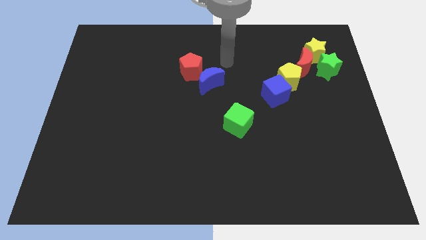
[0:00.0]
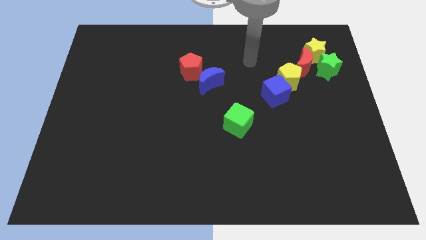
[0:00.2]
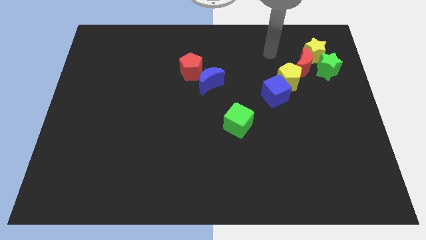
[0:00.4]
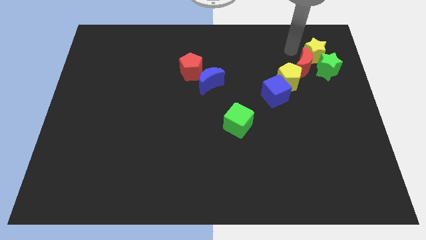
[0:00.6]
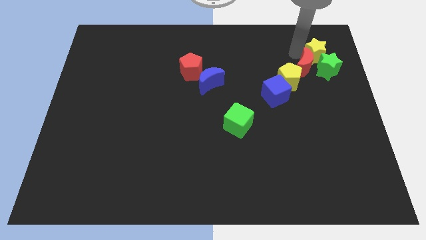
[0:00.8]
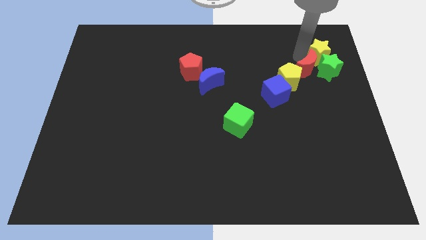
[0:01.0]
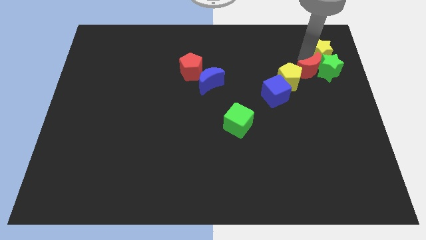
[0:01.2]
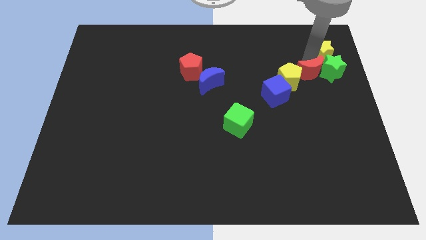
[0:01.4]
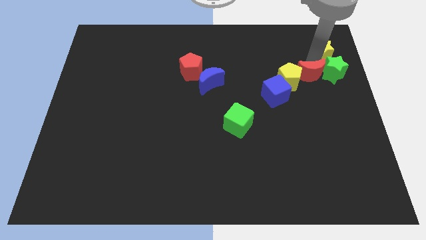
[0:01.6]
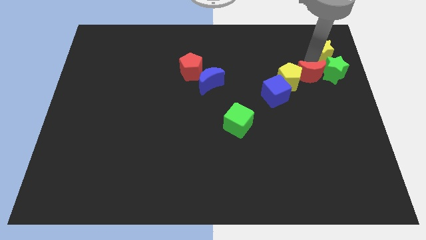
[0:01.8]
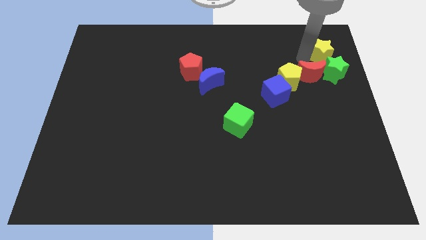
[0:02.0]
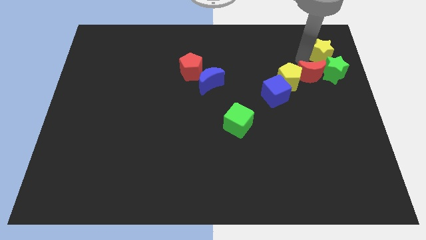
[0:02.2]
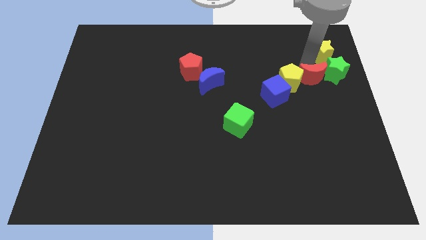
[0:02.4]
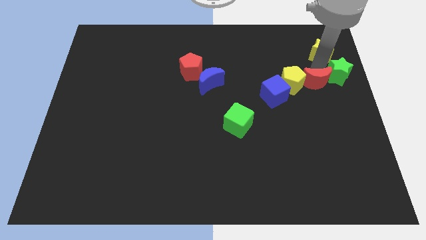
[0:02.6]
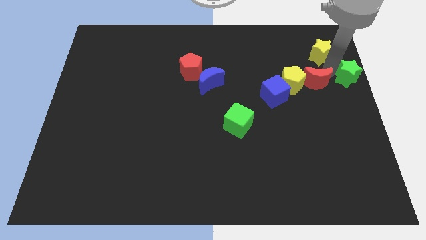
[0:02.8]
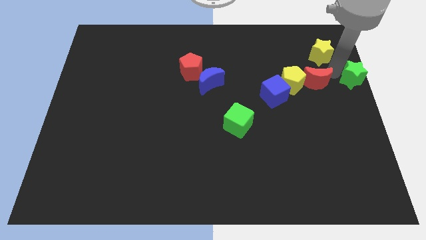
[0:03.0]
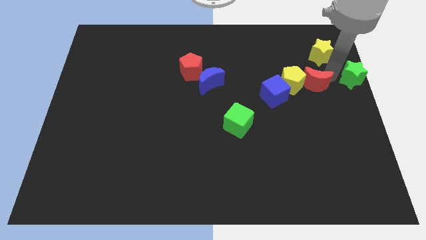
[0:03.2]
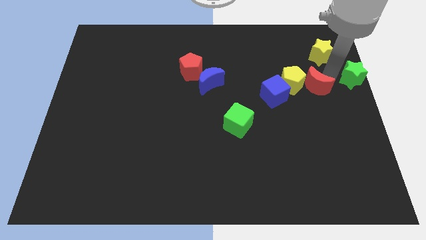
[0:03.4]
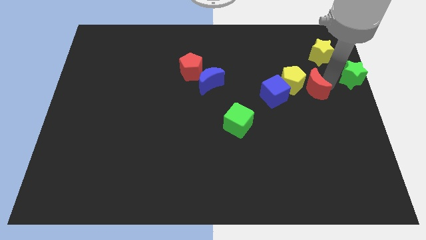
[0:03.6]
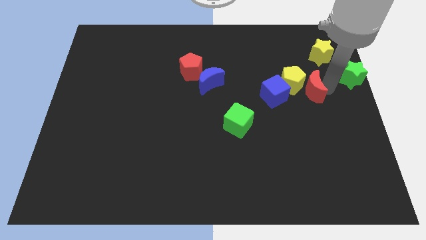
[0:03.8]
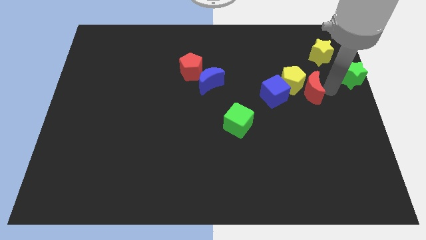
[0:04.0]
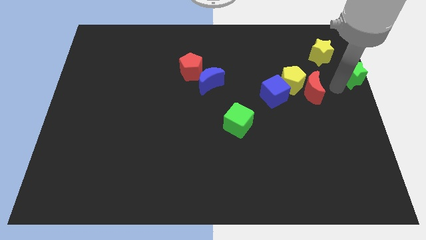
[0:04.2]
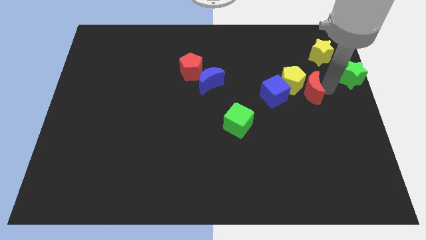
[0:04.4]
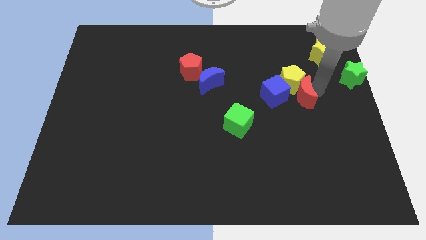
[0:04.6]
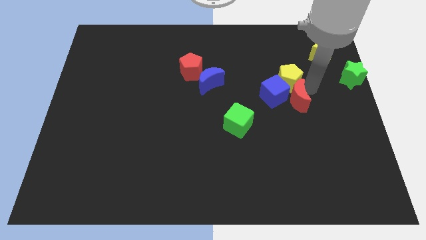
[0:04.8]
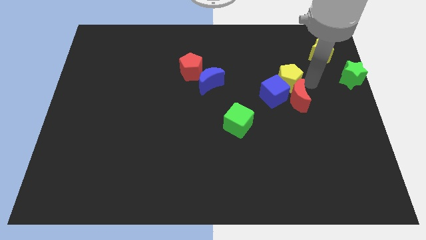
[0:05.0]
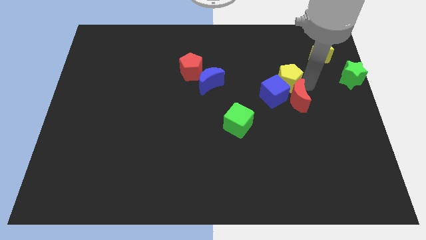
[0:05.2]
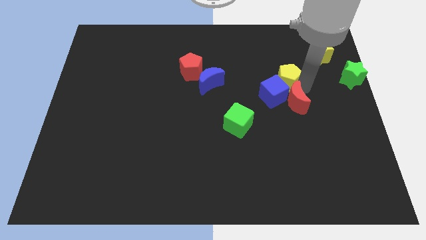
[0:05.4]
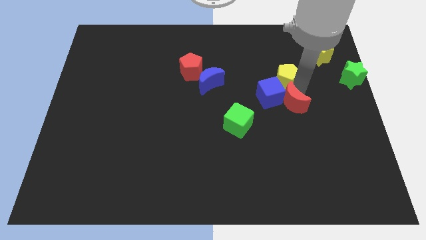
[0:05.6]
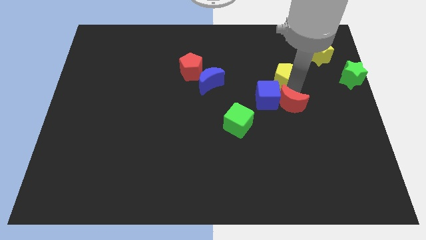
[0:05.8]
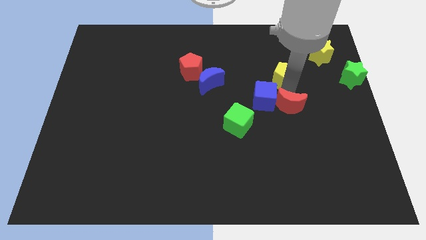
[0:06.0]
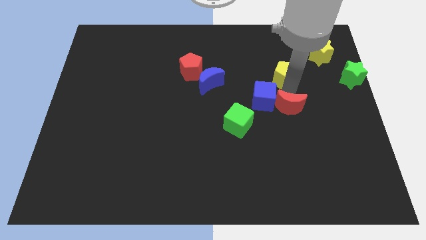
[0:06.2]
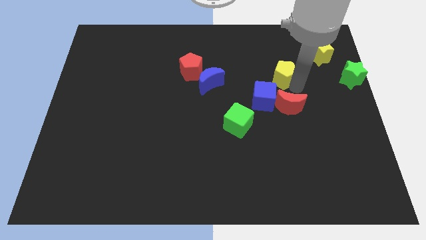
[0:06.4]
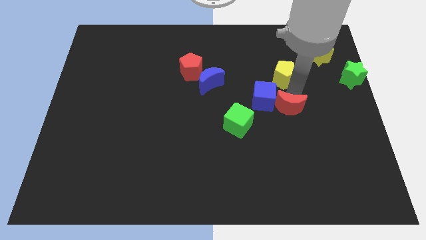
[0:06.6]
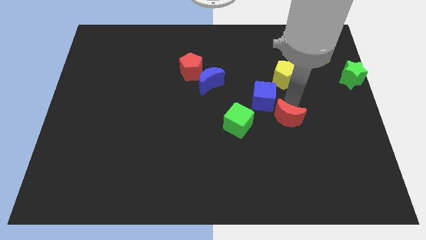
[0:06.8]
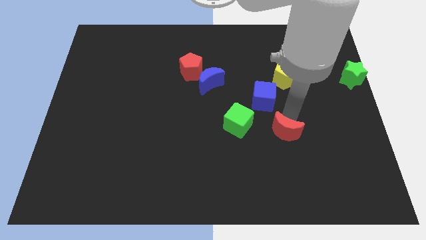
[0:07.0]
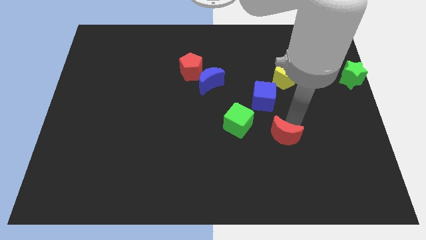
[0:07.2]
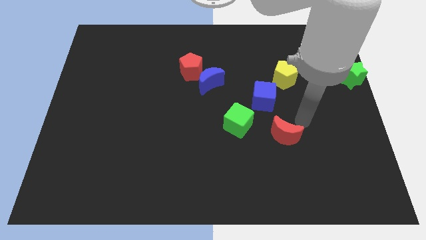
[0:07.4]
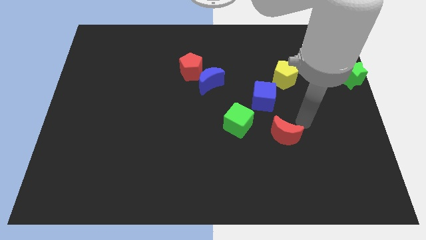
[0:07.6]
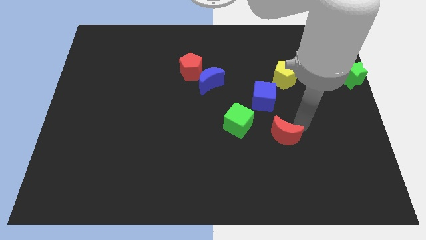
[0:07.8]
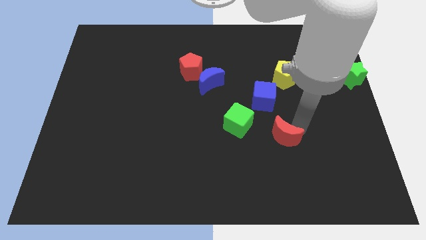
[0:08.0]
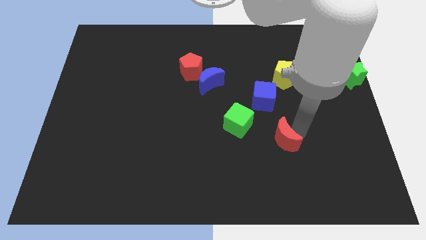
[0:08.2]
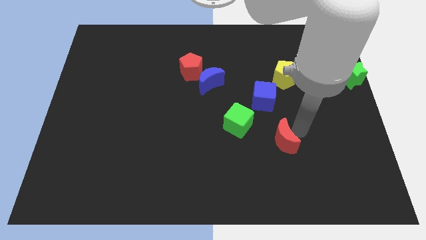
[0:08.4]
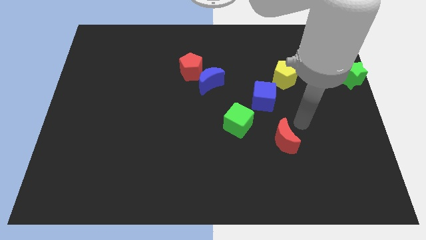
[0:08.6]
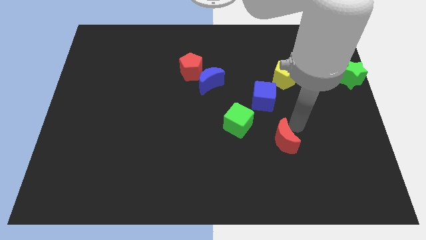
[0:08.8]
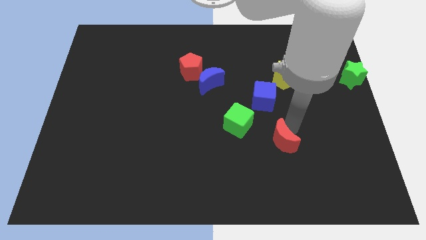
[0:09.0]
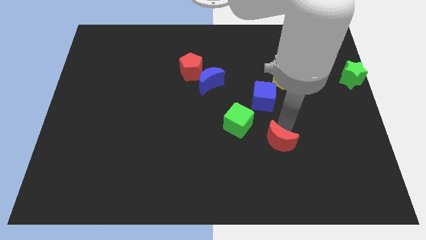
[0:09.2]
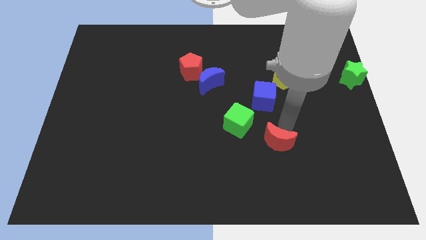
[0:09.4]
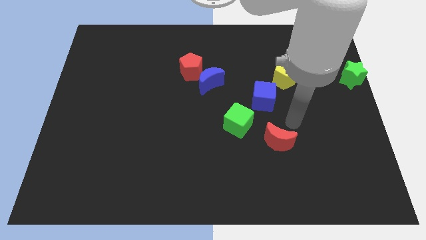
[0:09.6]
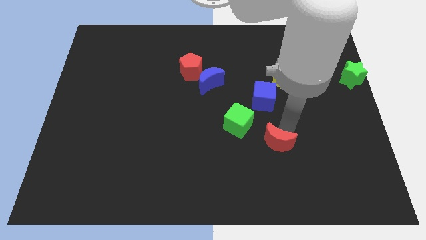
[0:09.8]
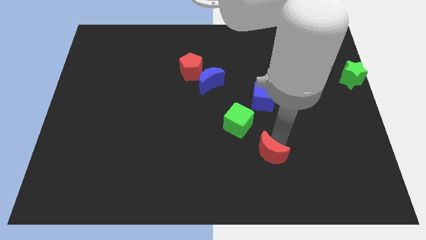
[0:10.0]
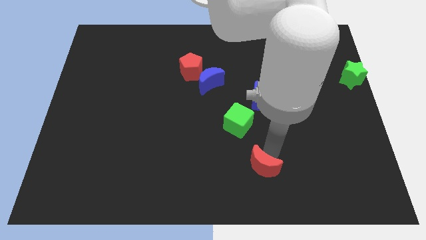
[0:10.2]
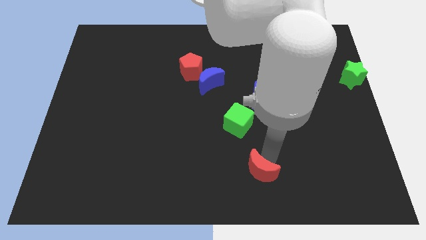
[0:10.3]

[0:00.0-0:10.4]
slide the red moon to the bottom
